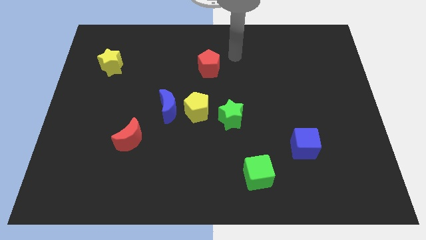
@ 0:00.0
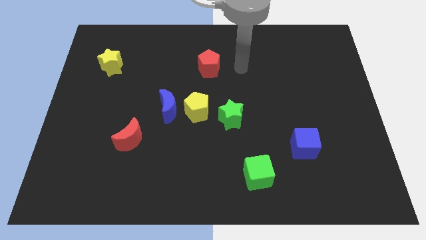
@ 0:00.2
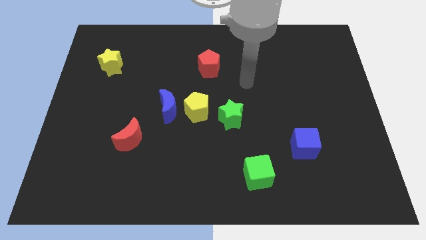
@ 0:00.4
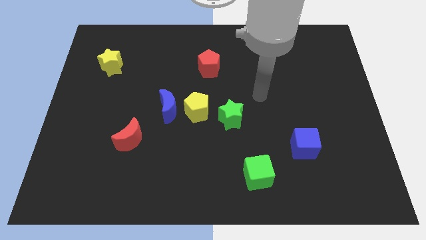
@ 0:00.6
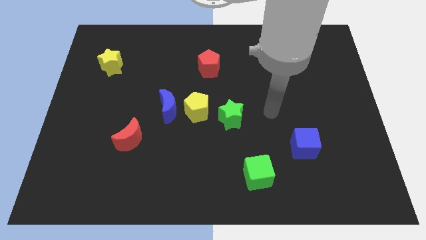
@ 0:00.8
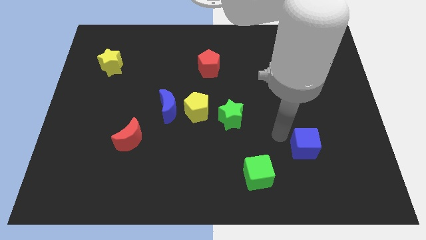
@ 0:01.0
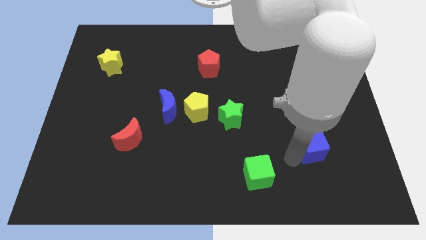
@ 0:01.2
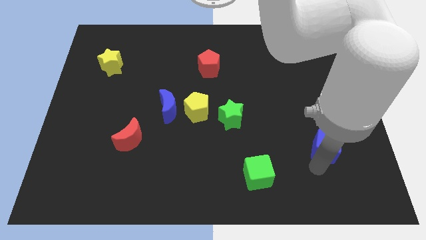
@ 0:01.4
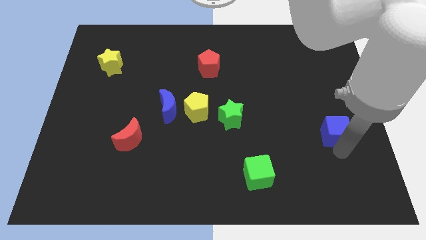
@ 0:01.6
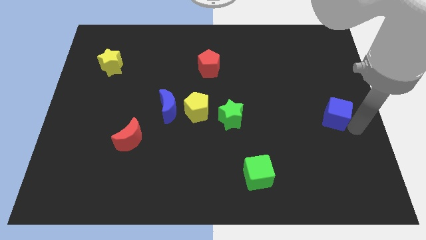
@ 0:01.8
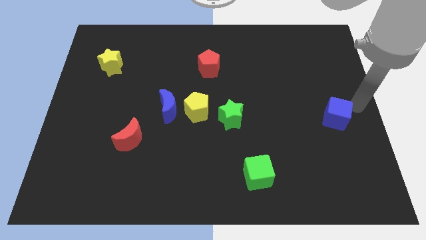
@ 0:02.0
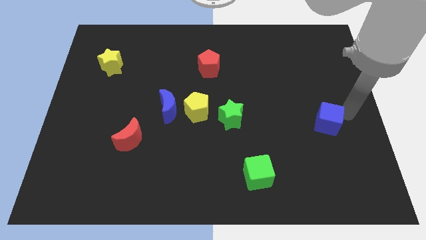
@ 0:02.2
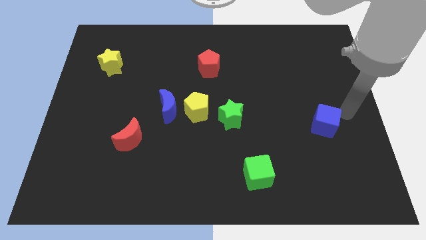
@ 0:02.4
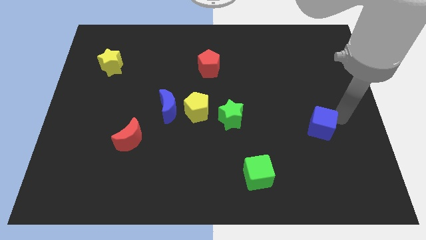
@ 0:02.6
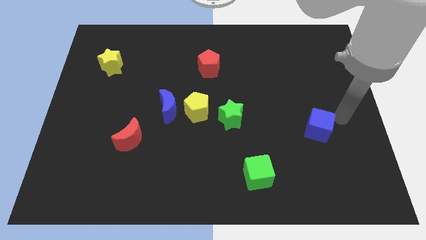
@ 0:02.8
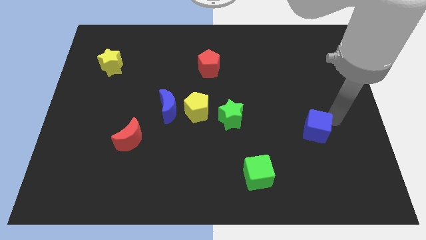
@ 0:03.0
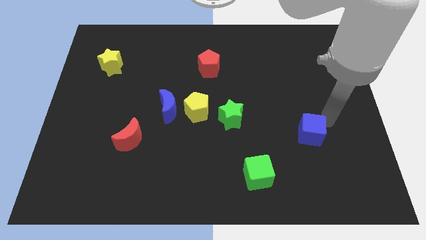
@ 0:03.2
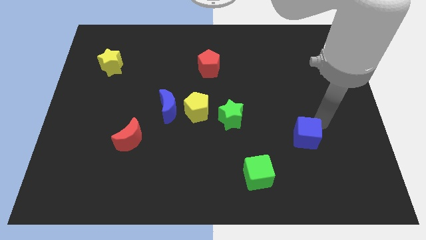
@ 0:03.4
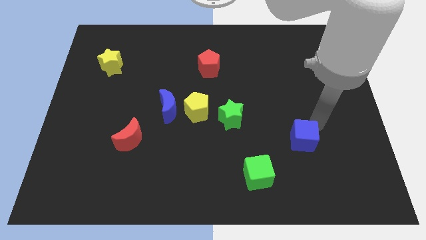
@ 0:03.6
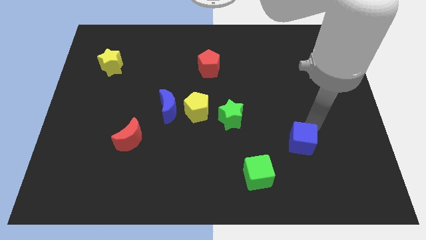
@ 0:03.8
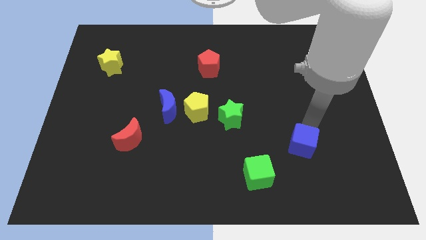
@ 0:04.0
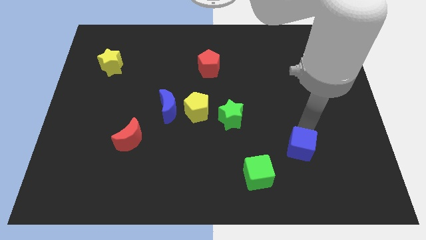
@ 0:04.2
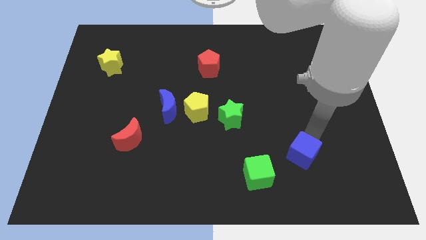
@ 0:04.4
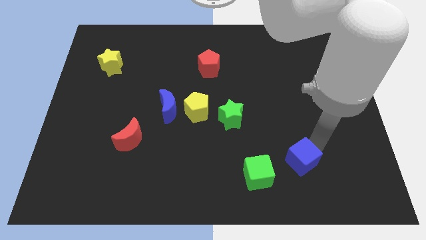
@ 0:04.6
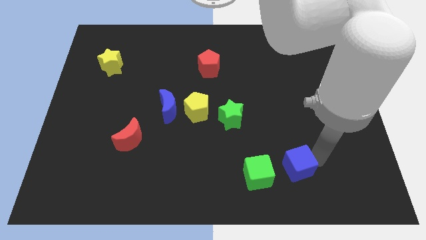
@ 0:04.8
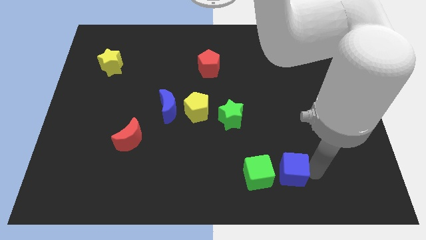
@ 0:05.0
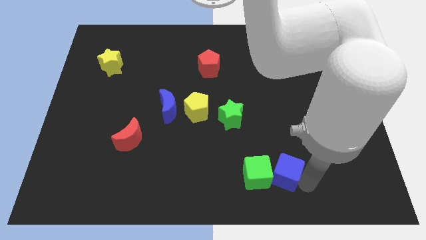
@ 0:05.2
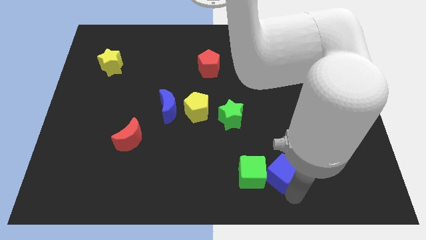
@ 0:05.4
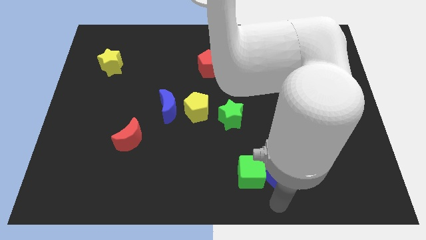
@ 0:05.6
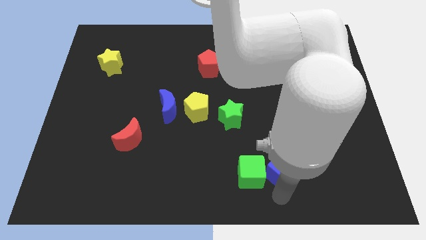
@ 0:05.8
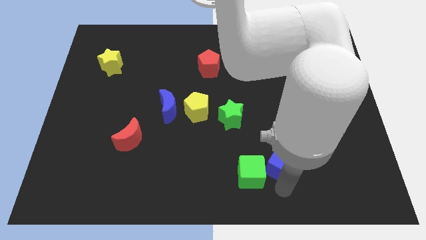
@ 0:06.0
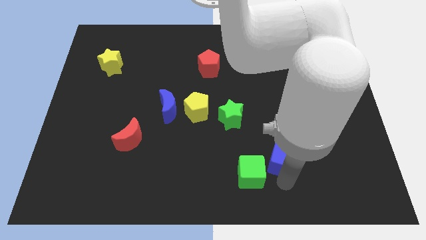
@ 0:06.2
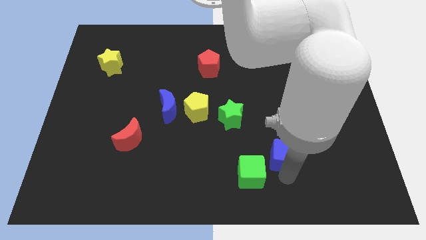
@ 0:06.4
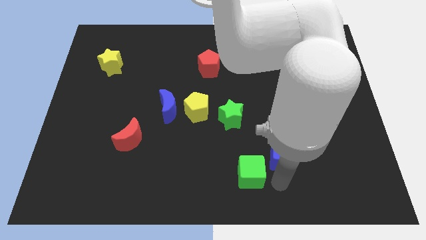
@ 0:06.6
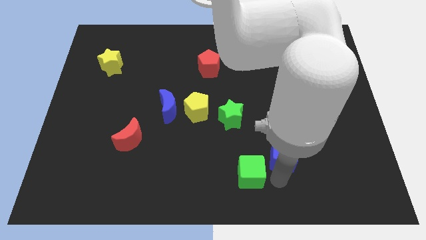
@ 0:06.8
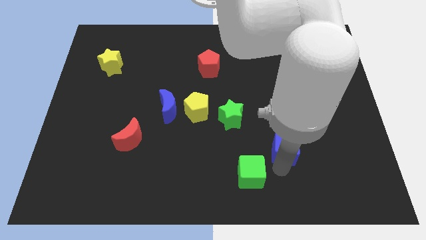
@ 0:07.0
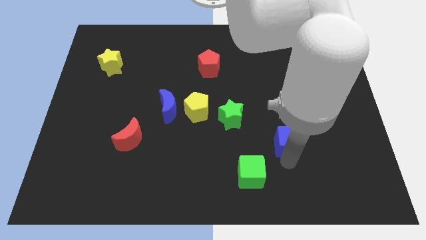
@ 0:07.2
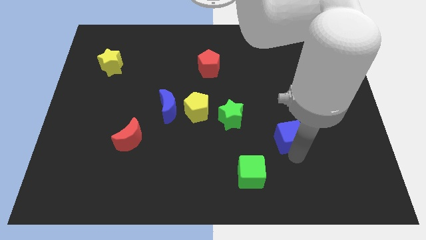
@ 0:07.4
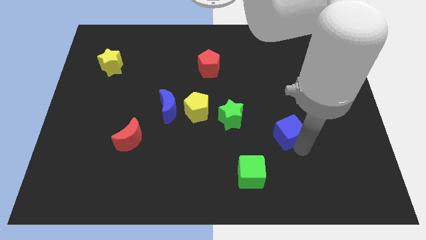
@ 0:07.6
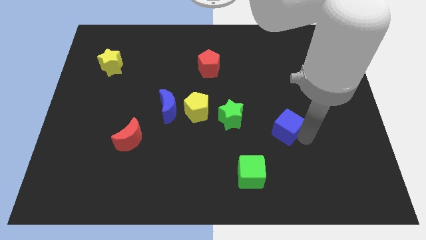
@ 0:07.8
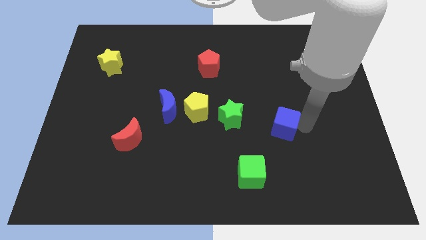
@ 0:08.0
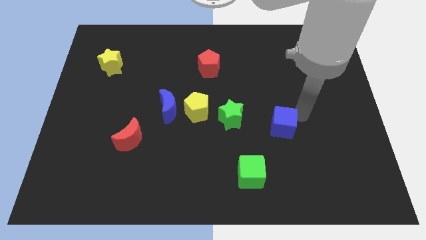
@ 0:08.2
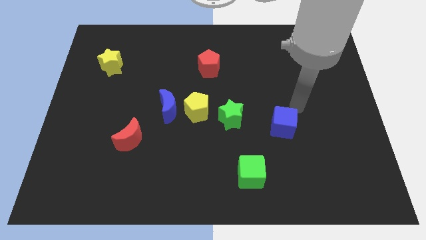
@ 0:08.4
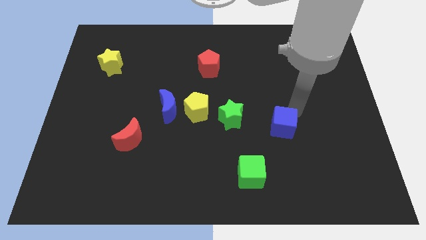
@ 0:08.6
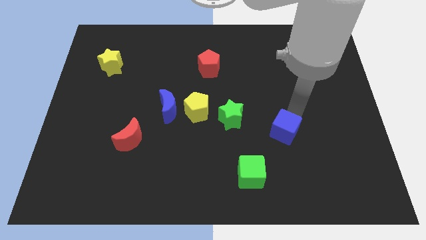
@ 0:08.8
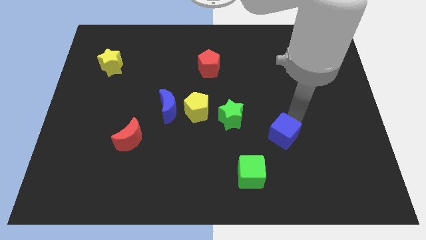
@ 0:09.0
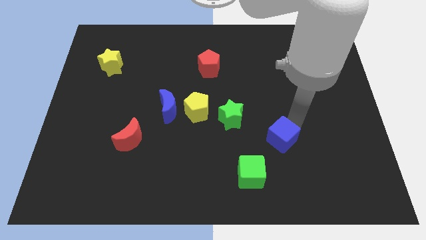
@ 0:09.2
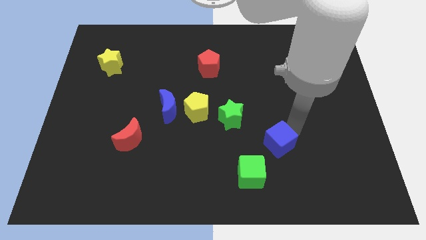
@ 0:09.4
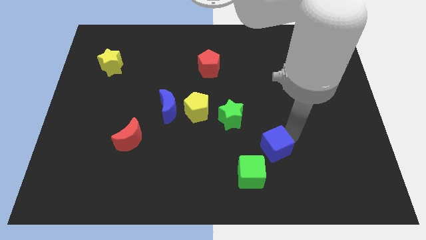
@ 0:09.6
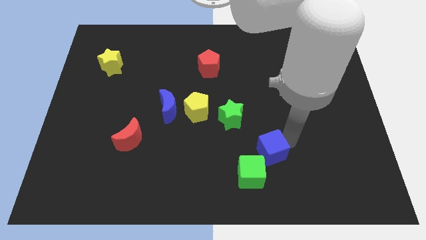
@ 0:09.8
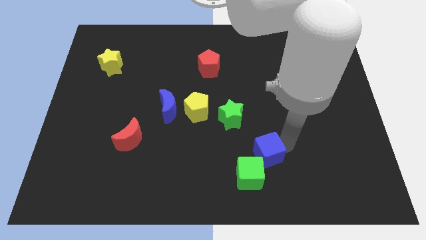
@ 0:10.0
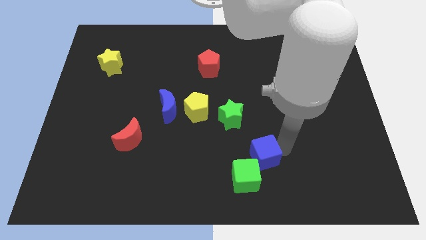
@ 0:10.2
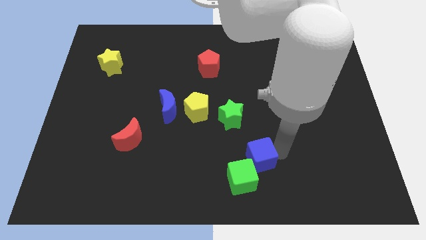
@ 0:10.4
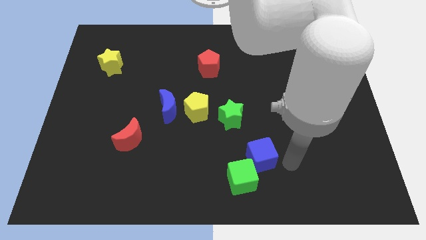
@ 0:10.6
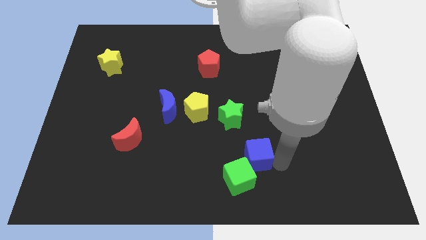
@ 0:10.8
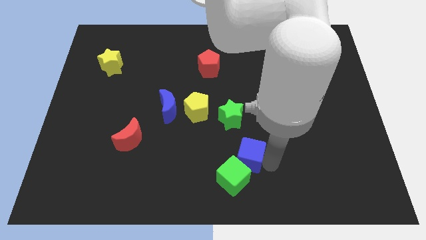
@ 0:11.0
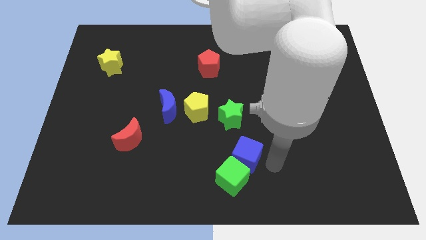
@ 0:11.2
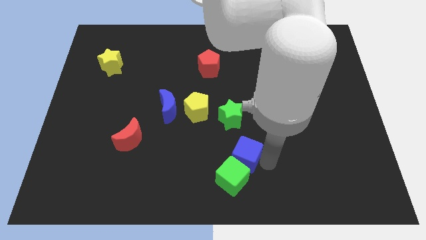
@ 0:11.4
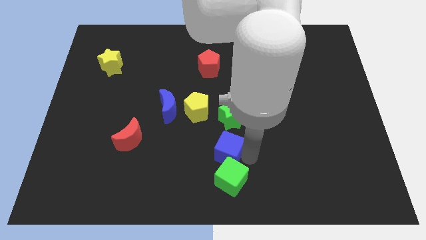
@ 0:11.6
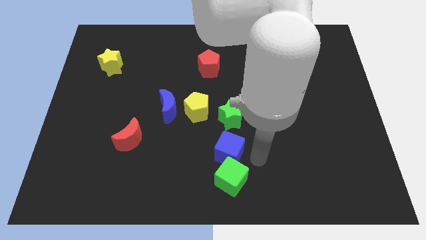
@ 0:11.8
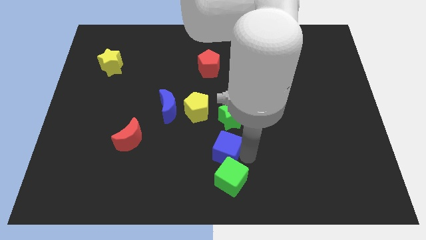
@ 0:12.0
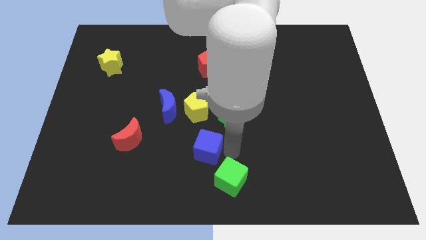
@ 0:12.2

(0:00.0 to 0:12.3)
push the blue cube left

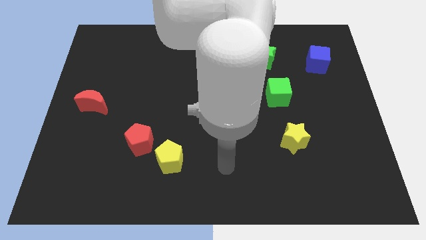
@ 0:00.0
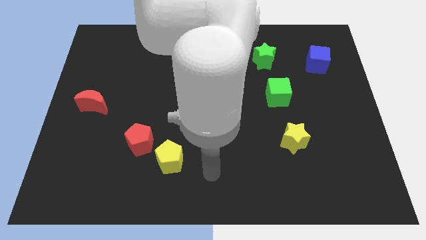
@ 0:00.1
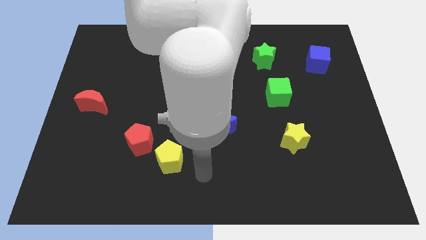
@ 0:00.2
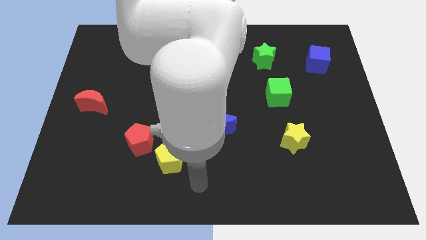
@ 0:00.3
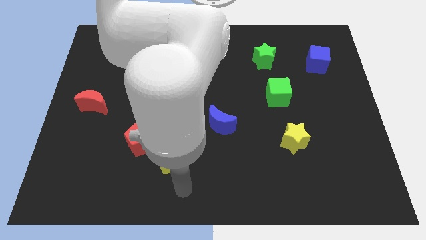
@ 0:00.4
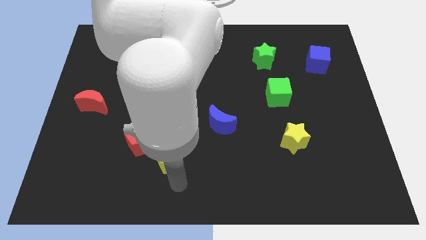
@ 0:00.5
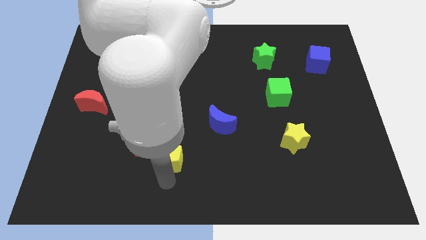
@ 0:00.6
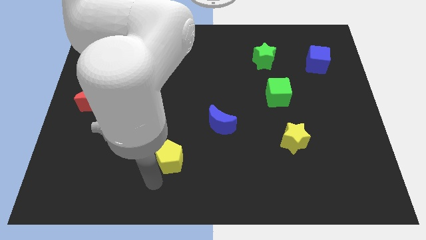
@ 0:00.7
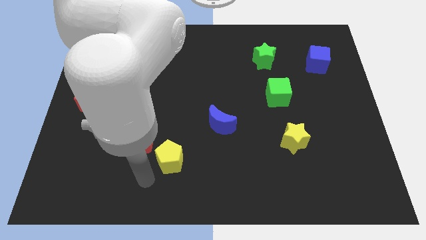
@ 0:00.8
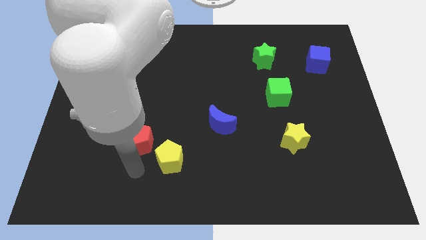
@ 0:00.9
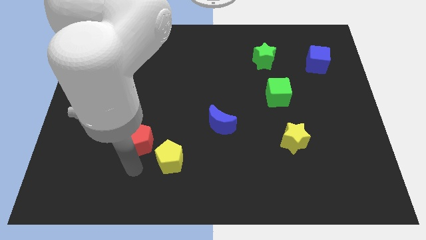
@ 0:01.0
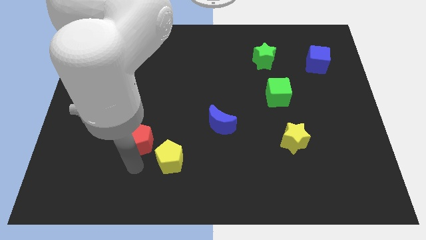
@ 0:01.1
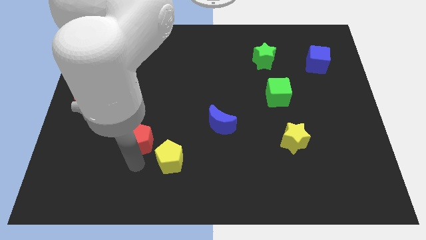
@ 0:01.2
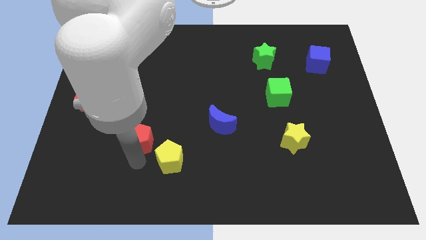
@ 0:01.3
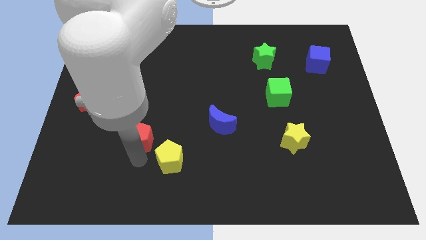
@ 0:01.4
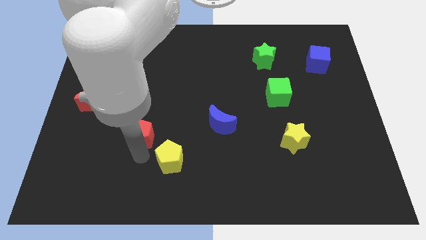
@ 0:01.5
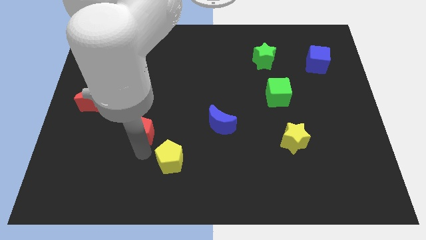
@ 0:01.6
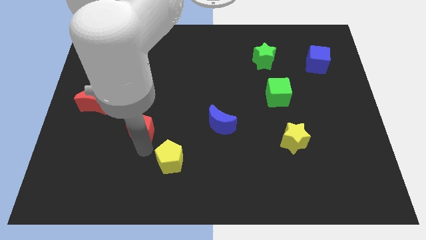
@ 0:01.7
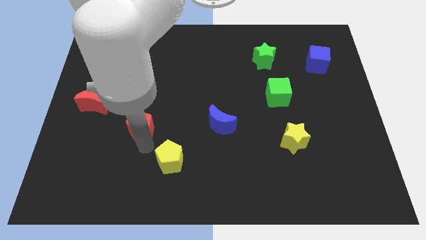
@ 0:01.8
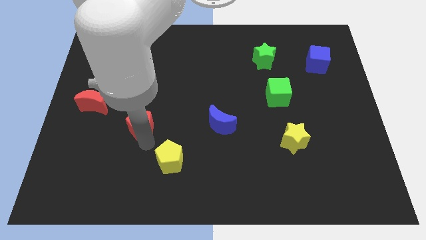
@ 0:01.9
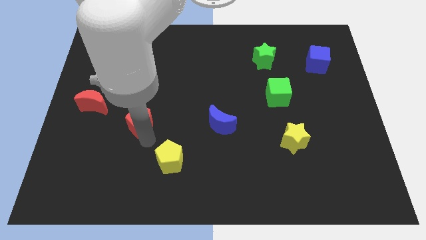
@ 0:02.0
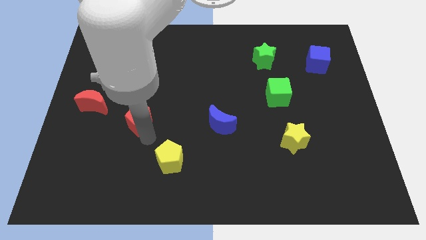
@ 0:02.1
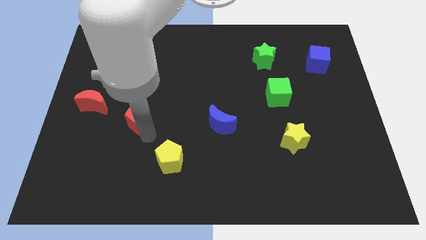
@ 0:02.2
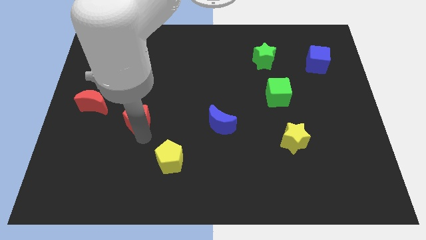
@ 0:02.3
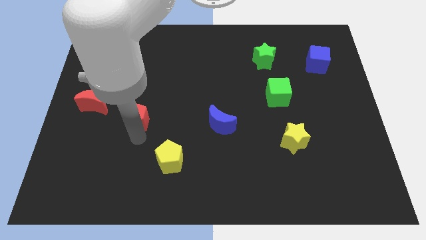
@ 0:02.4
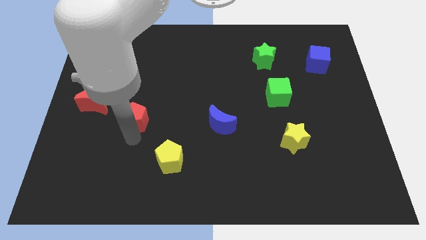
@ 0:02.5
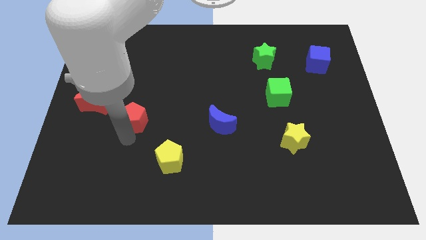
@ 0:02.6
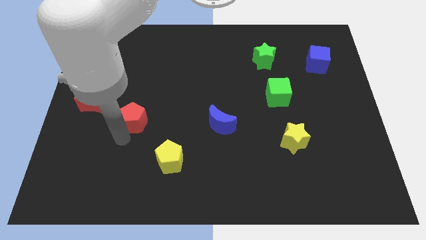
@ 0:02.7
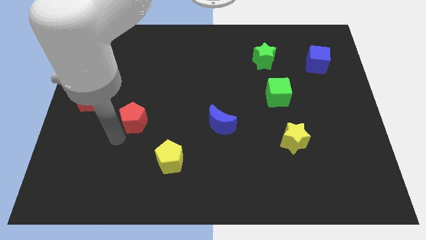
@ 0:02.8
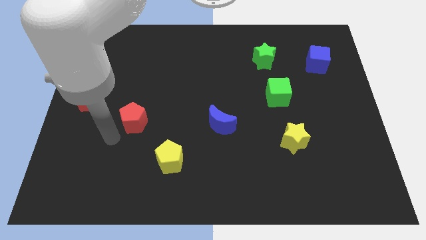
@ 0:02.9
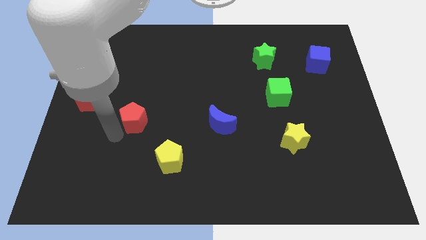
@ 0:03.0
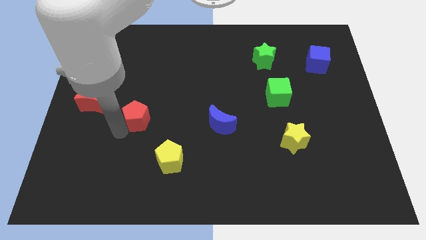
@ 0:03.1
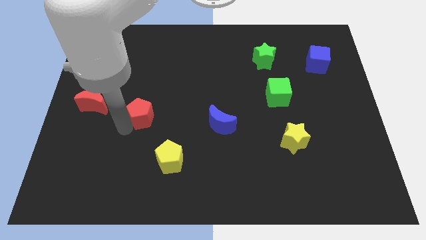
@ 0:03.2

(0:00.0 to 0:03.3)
push the red pentagon up a bit
